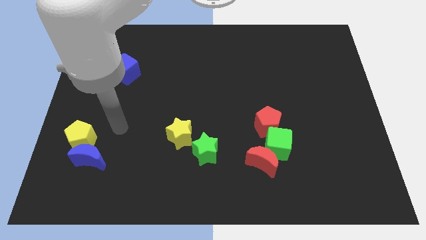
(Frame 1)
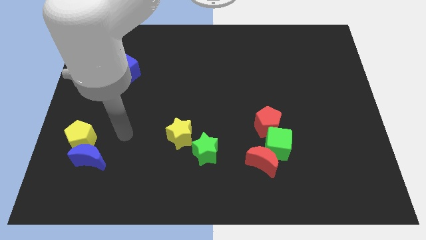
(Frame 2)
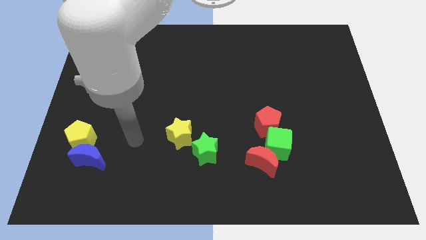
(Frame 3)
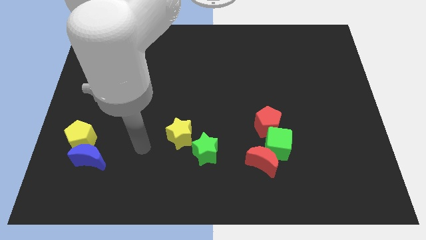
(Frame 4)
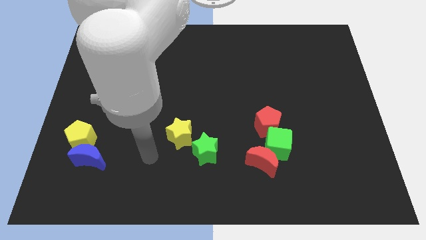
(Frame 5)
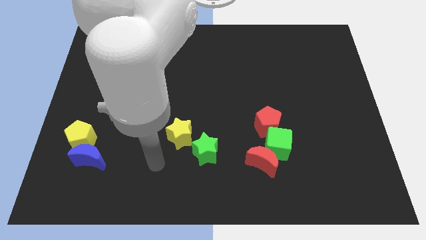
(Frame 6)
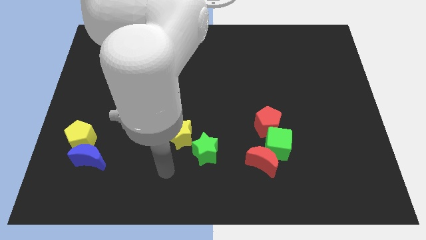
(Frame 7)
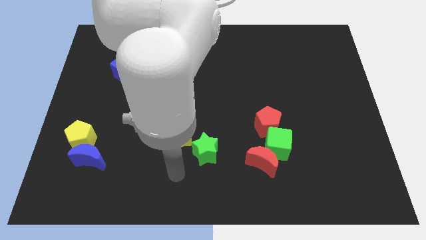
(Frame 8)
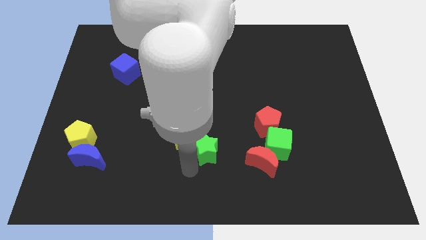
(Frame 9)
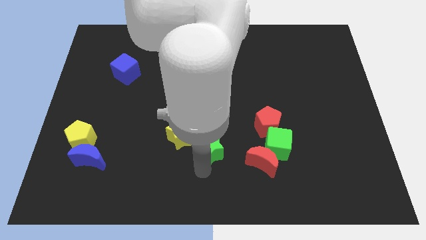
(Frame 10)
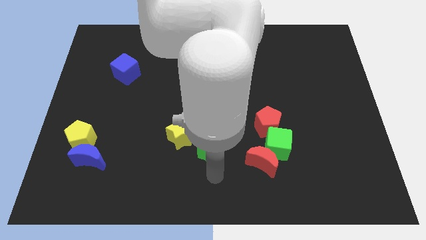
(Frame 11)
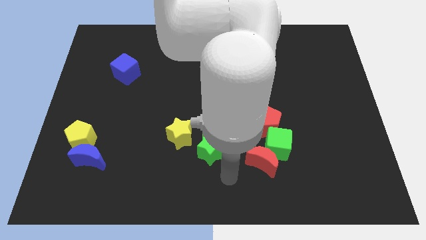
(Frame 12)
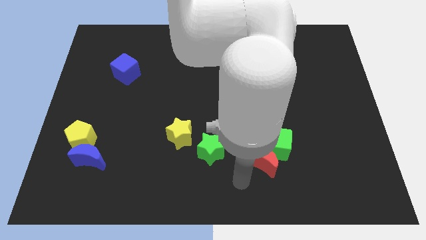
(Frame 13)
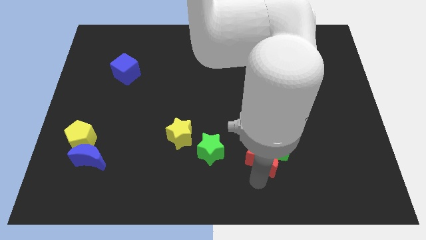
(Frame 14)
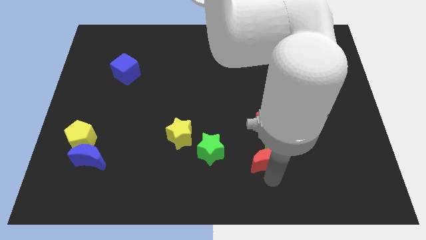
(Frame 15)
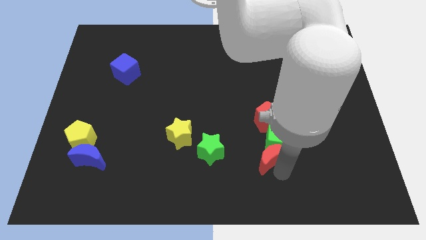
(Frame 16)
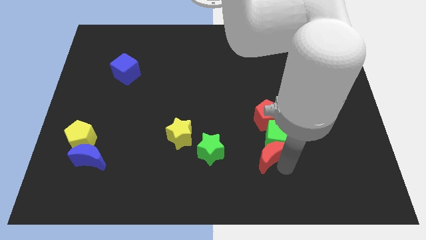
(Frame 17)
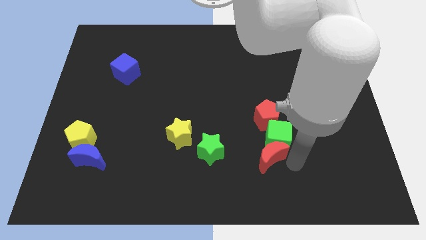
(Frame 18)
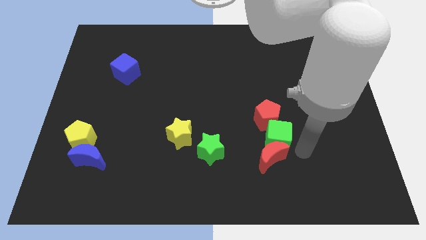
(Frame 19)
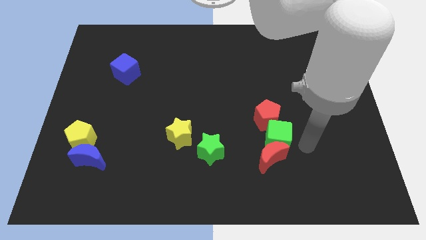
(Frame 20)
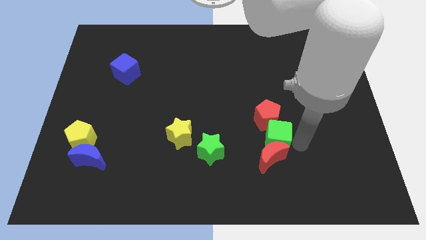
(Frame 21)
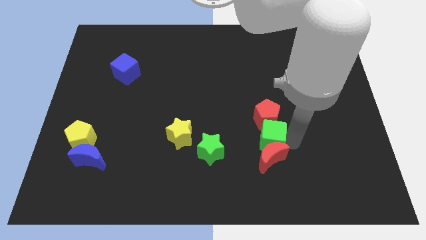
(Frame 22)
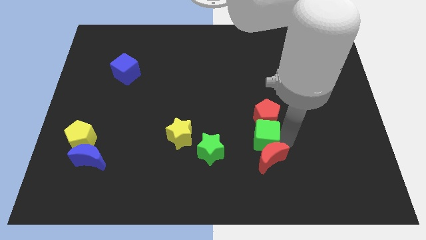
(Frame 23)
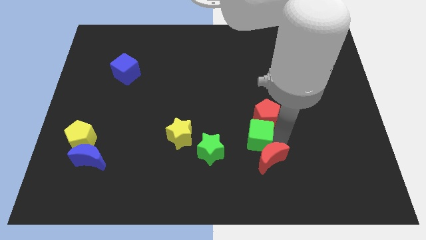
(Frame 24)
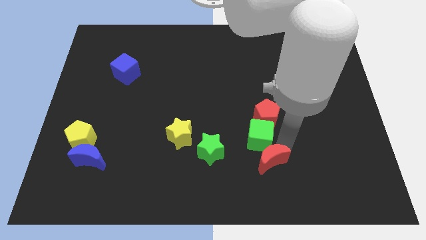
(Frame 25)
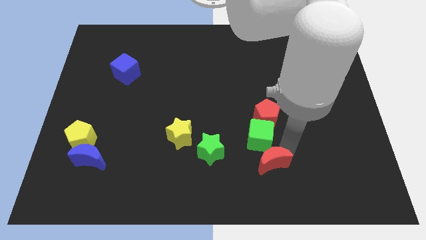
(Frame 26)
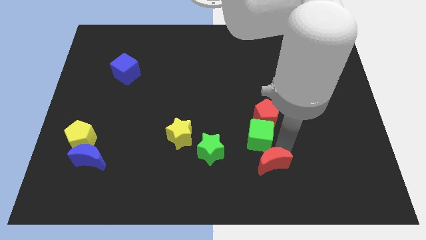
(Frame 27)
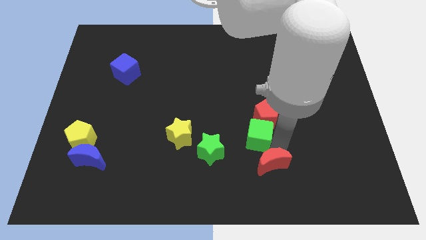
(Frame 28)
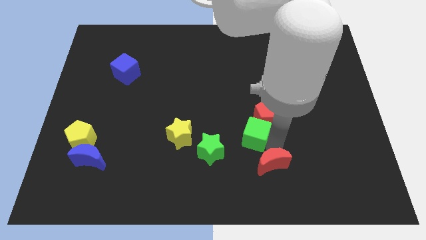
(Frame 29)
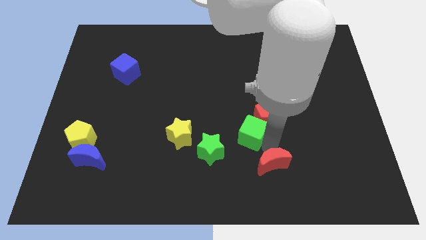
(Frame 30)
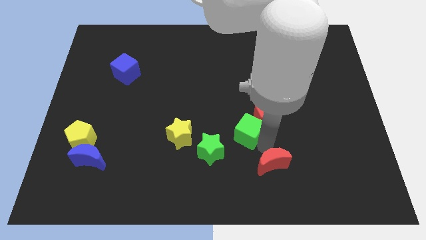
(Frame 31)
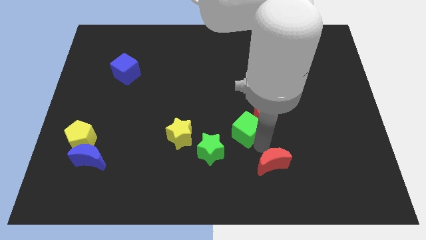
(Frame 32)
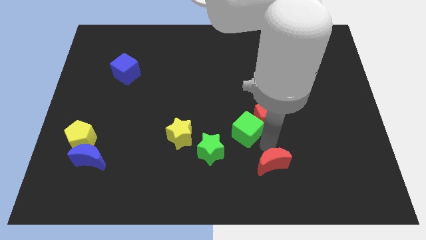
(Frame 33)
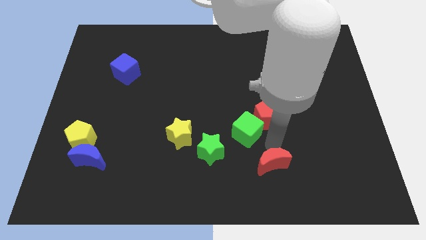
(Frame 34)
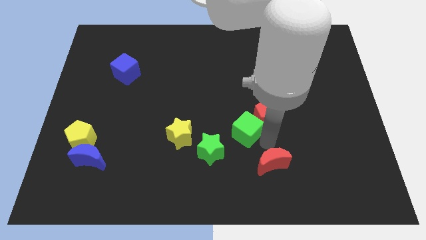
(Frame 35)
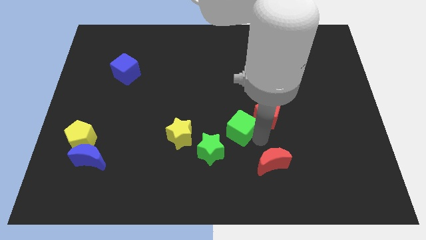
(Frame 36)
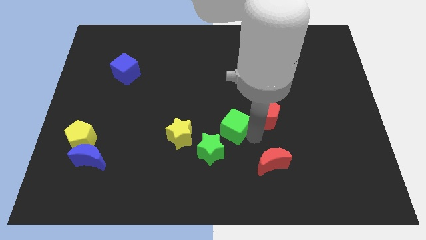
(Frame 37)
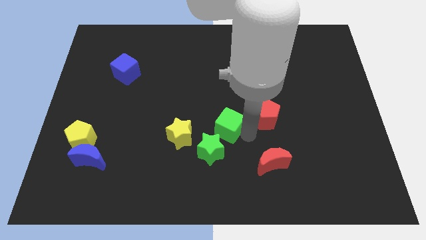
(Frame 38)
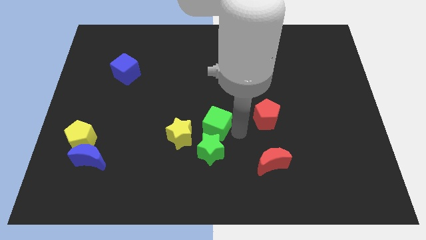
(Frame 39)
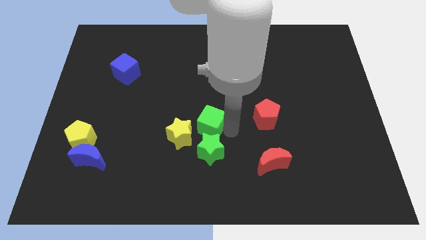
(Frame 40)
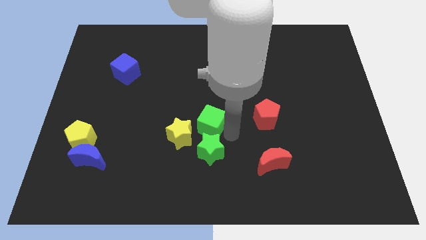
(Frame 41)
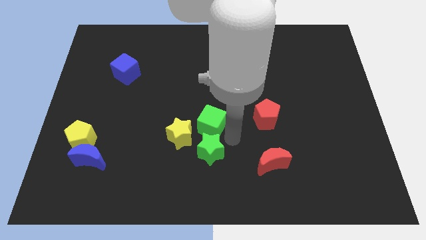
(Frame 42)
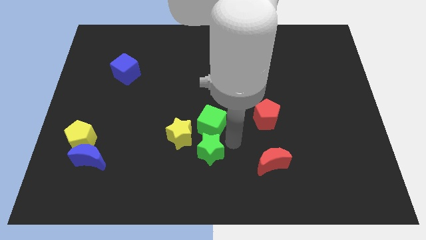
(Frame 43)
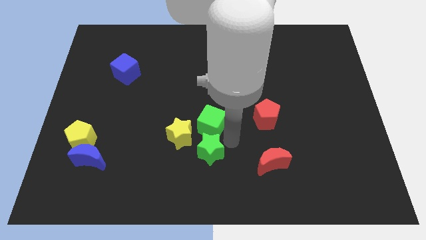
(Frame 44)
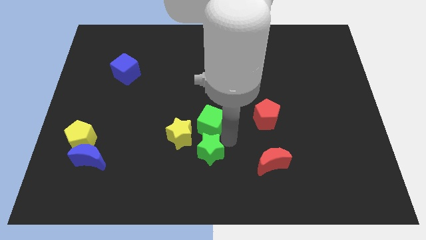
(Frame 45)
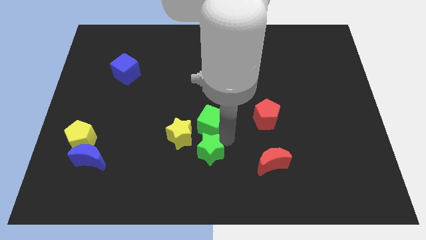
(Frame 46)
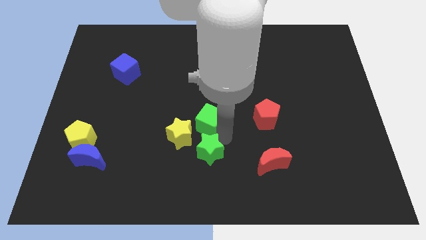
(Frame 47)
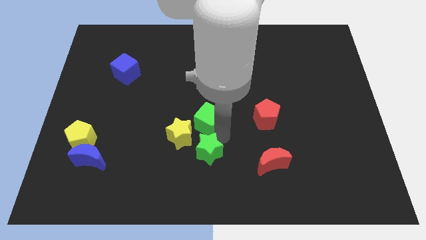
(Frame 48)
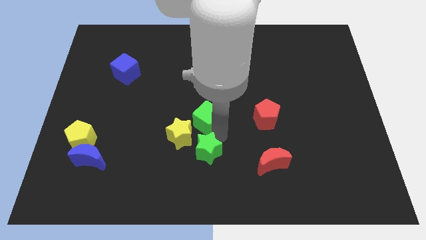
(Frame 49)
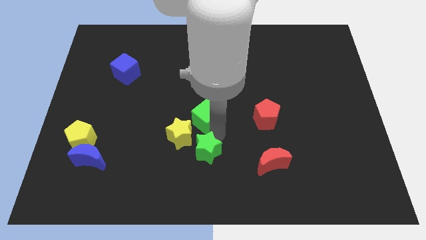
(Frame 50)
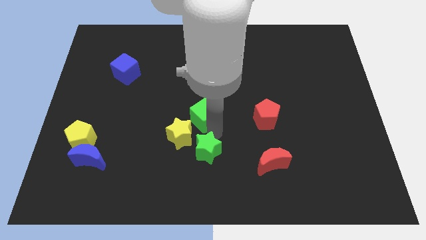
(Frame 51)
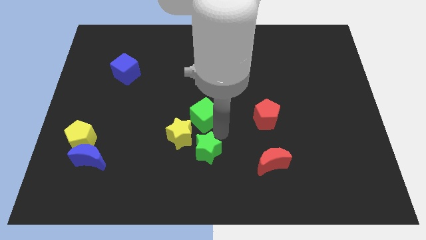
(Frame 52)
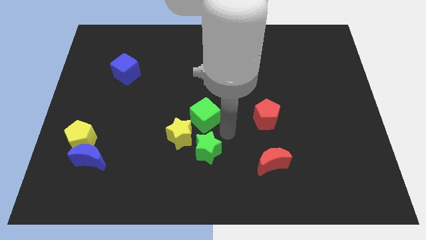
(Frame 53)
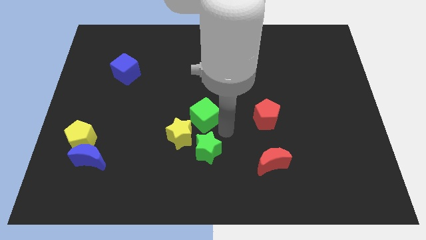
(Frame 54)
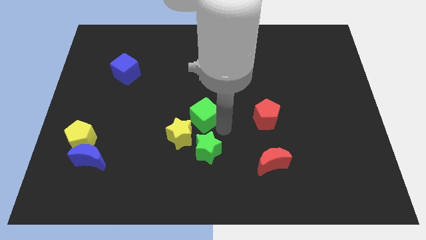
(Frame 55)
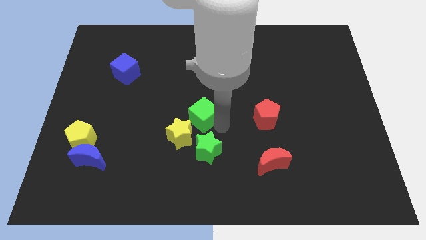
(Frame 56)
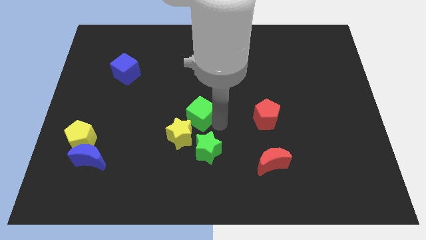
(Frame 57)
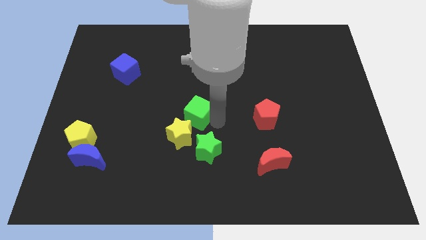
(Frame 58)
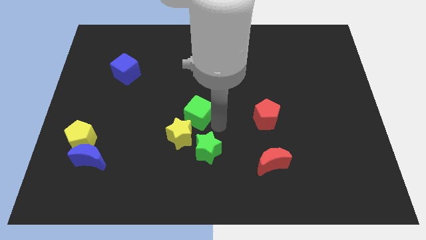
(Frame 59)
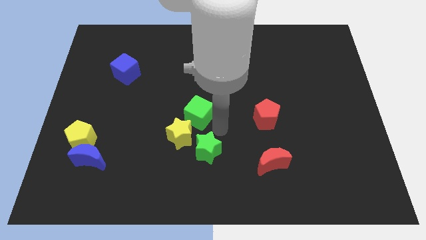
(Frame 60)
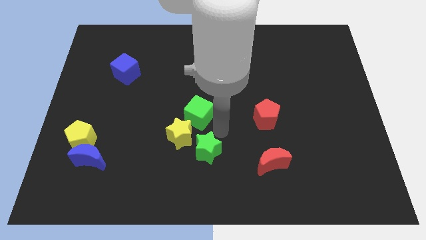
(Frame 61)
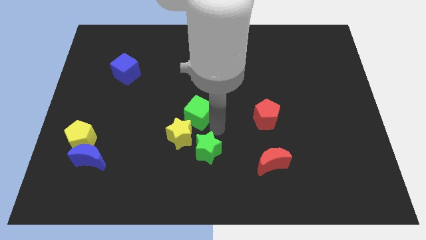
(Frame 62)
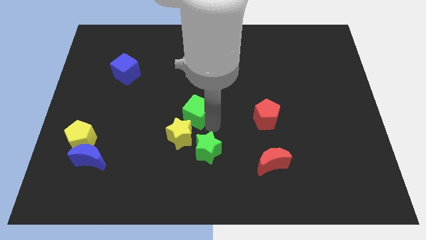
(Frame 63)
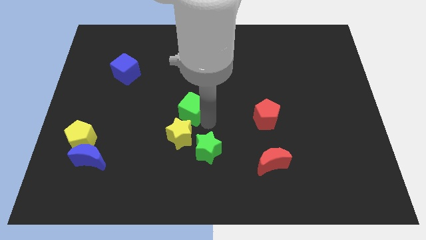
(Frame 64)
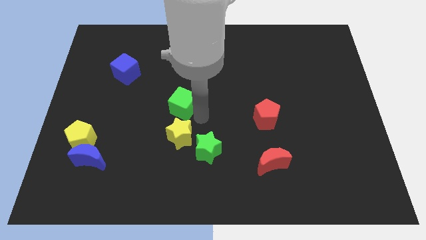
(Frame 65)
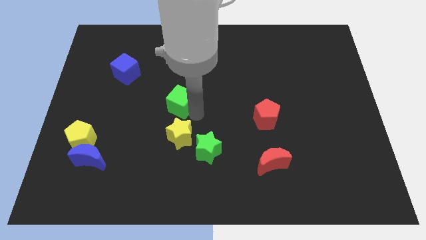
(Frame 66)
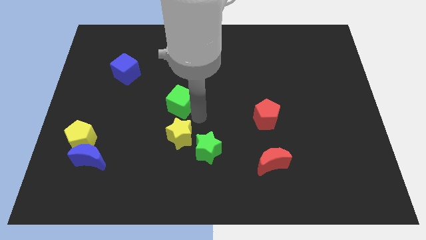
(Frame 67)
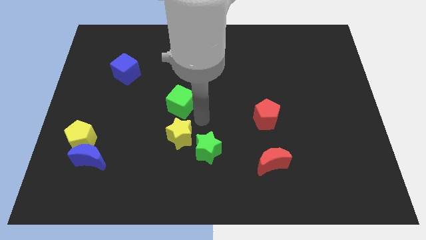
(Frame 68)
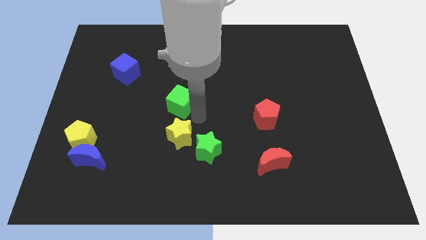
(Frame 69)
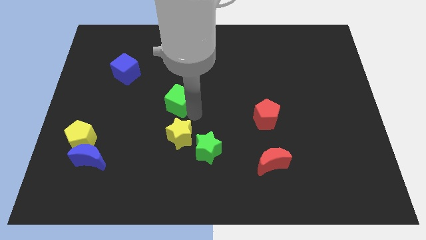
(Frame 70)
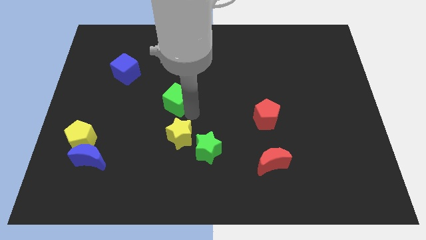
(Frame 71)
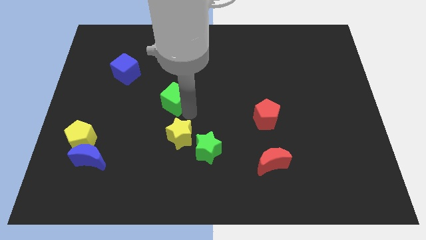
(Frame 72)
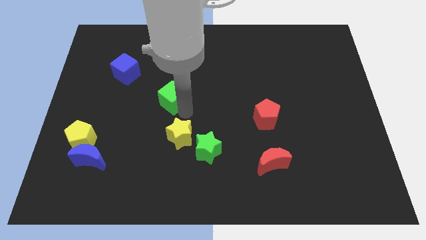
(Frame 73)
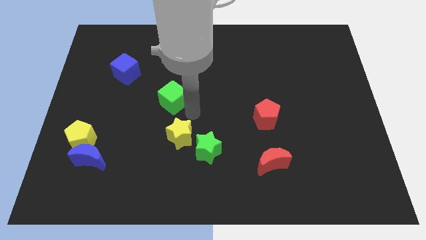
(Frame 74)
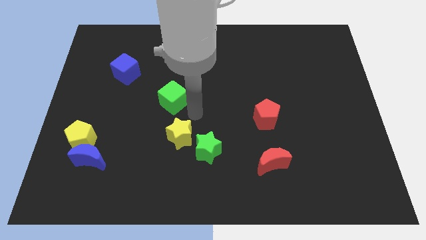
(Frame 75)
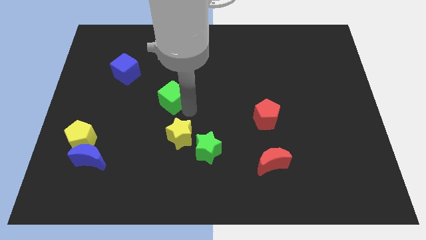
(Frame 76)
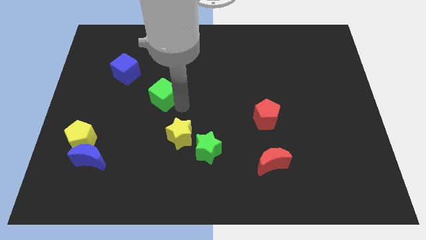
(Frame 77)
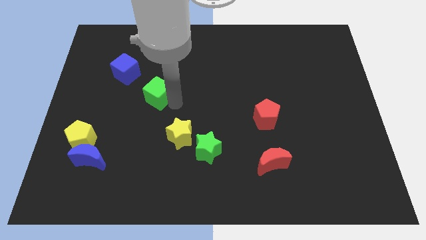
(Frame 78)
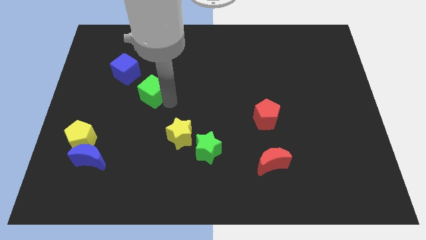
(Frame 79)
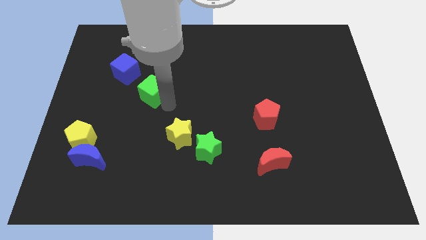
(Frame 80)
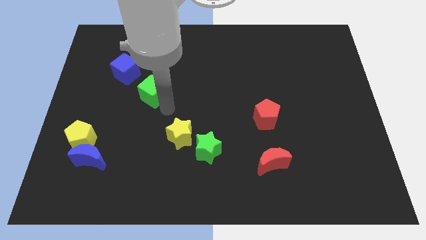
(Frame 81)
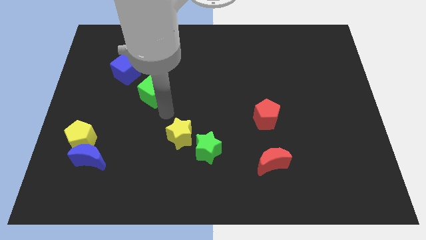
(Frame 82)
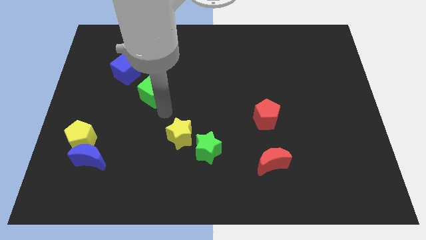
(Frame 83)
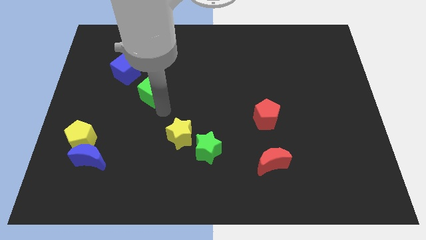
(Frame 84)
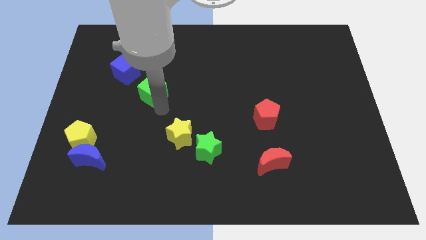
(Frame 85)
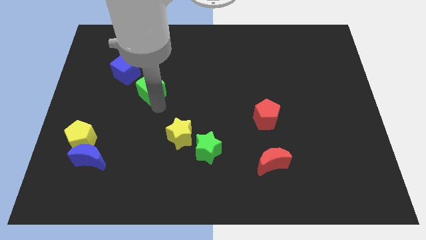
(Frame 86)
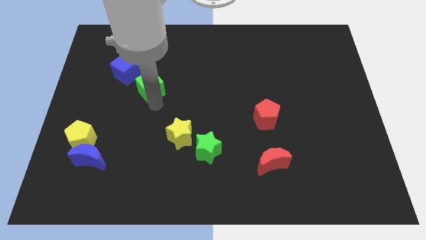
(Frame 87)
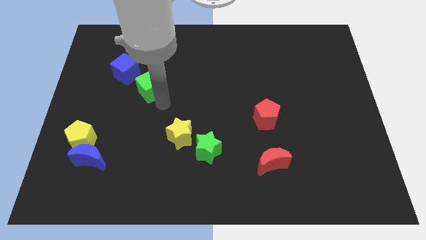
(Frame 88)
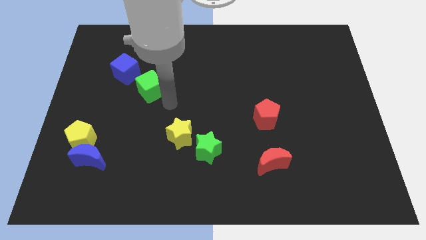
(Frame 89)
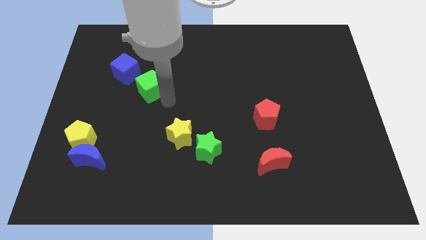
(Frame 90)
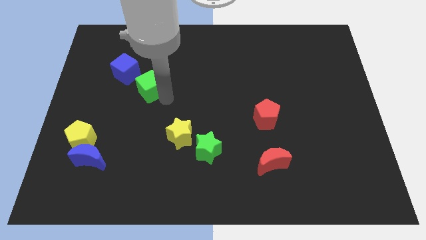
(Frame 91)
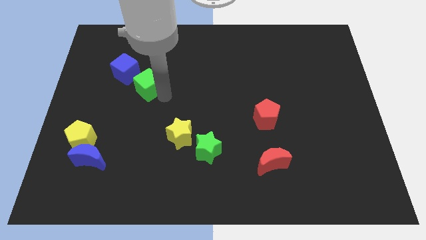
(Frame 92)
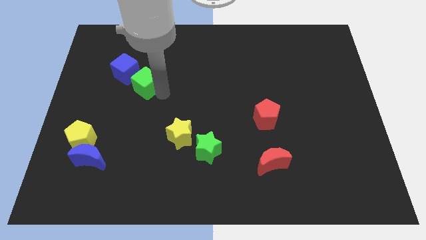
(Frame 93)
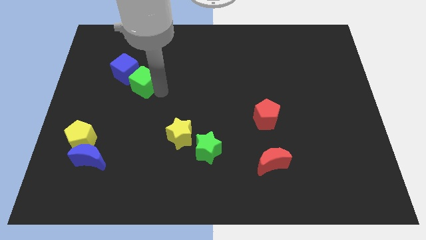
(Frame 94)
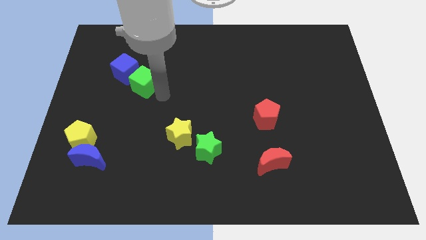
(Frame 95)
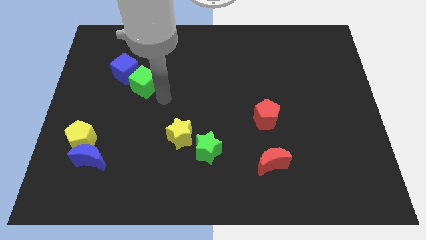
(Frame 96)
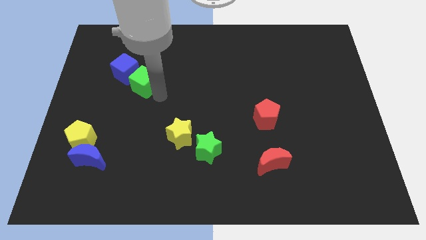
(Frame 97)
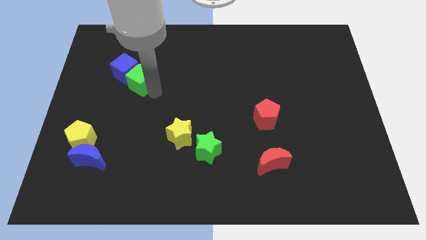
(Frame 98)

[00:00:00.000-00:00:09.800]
put the green cube next to the blue cube
